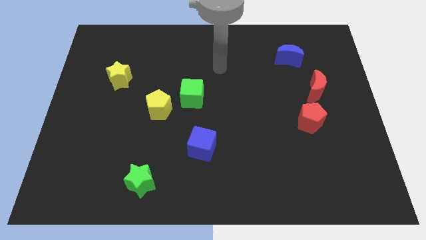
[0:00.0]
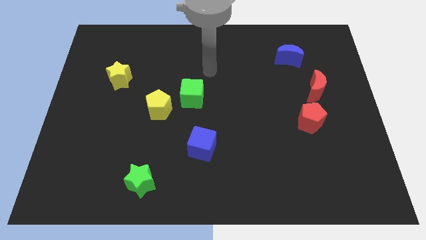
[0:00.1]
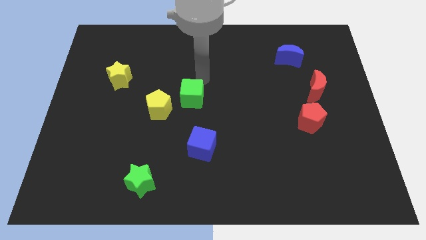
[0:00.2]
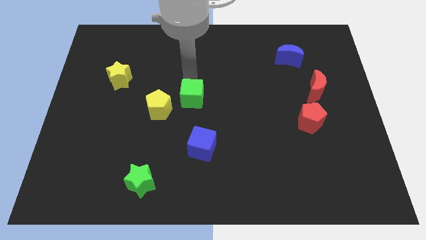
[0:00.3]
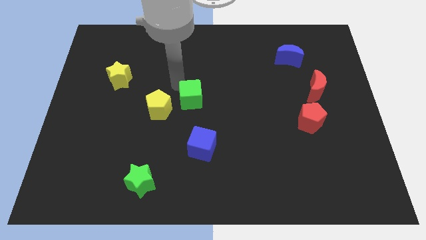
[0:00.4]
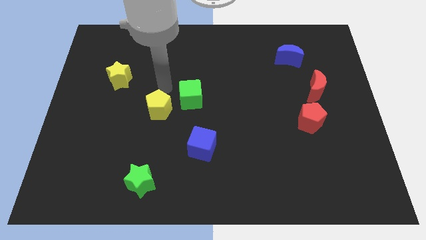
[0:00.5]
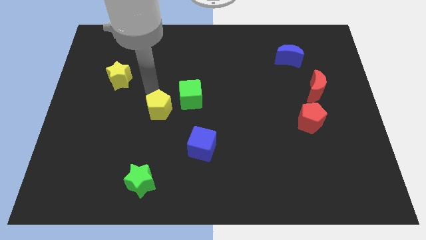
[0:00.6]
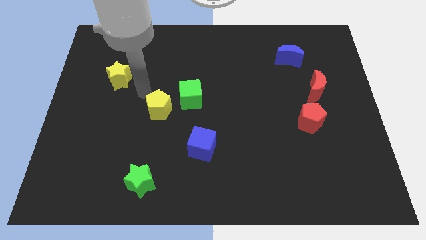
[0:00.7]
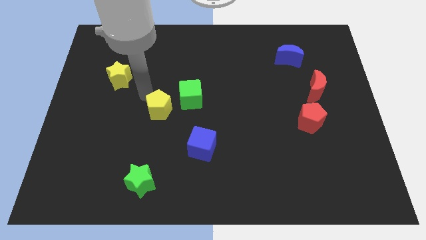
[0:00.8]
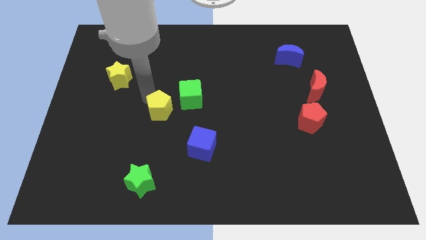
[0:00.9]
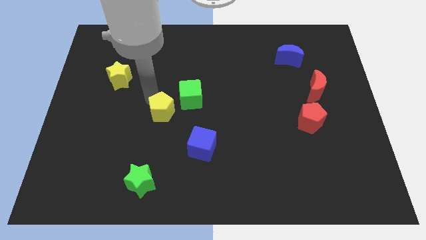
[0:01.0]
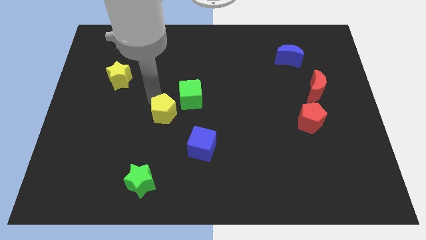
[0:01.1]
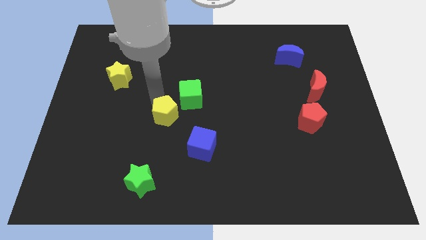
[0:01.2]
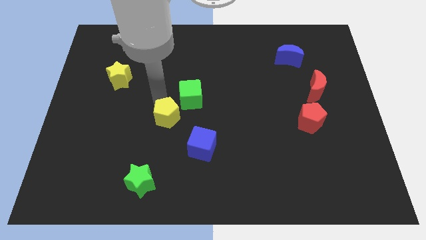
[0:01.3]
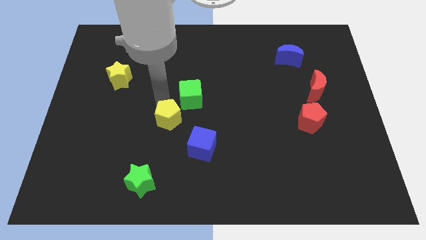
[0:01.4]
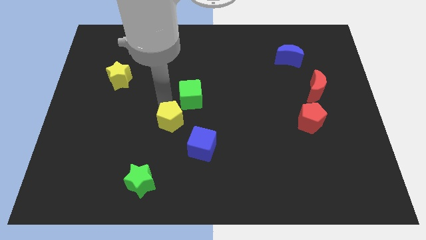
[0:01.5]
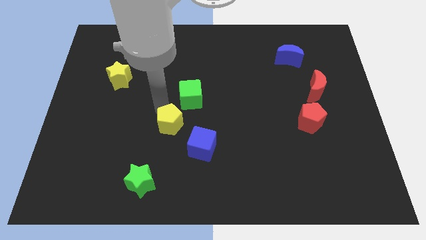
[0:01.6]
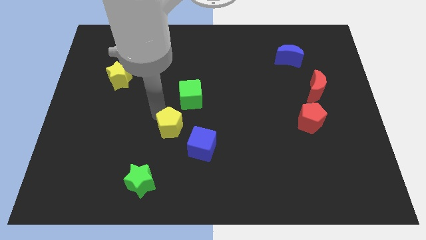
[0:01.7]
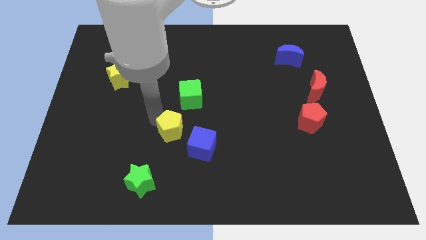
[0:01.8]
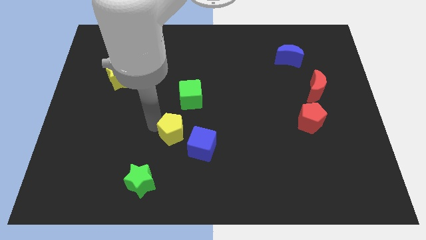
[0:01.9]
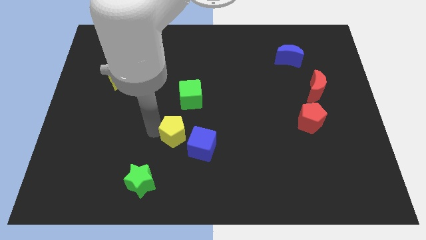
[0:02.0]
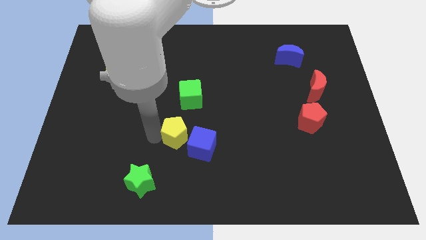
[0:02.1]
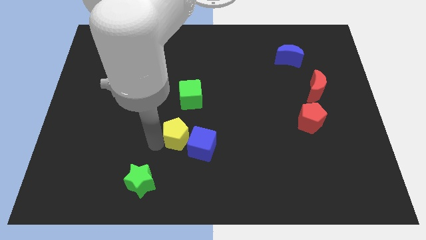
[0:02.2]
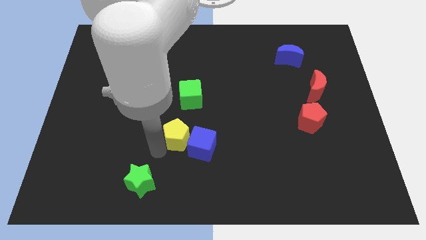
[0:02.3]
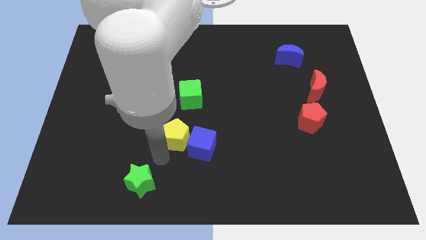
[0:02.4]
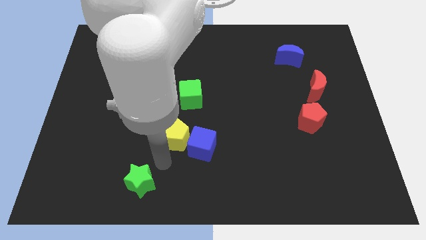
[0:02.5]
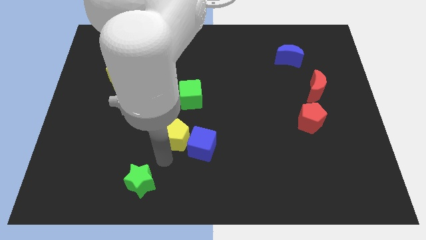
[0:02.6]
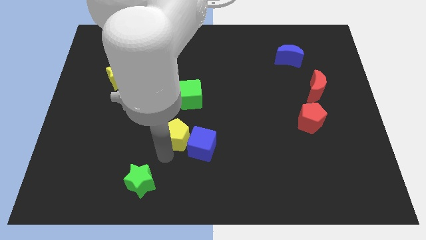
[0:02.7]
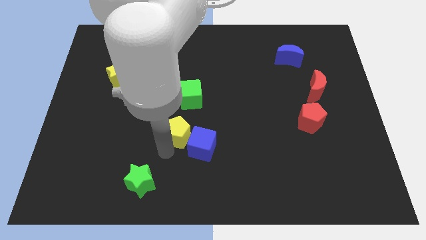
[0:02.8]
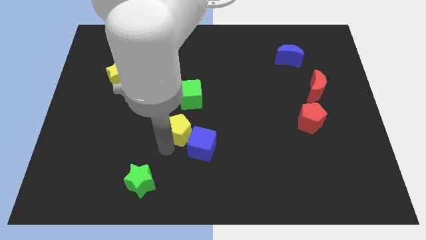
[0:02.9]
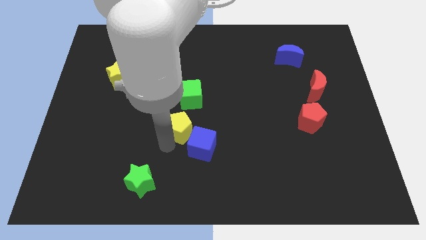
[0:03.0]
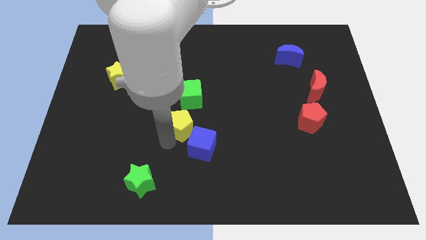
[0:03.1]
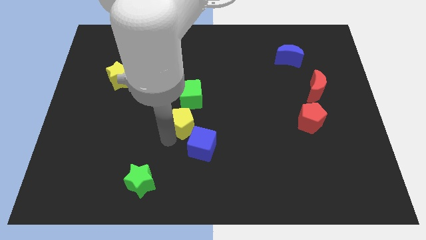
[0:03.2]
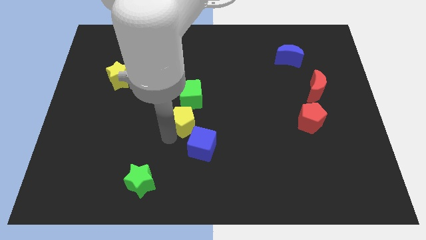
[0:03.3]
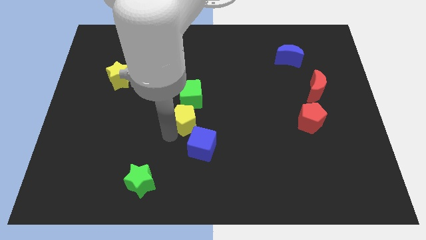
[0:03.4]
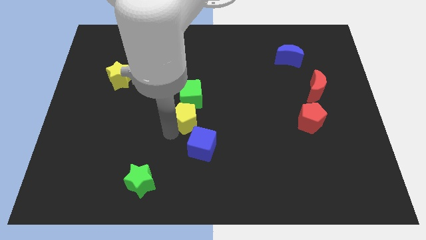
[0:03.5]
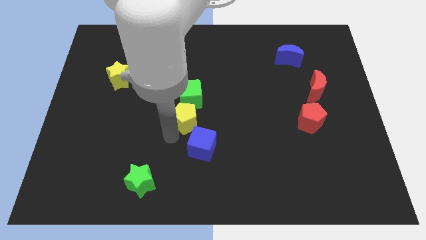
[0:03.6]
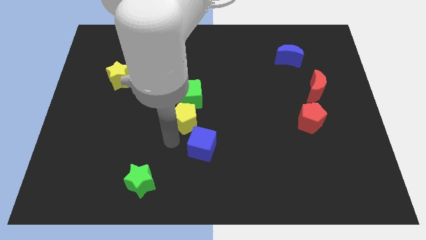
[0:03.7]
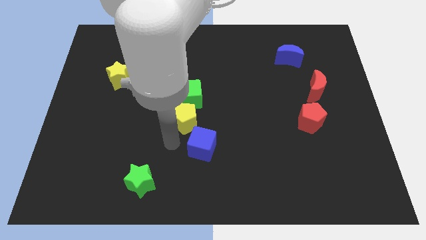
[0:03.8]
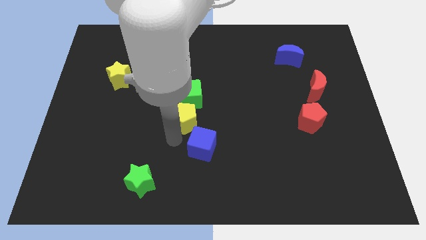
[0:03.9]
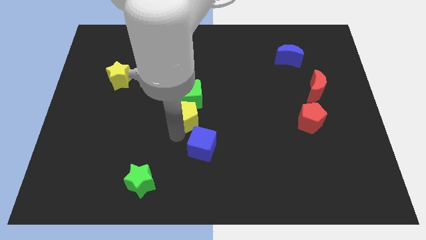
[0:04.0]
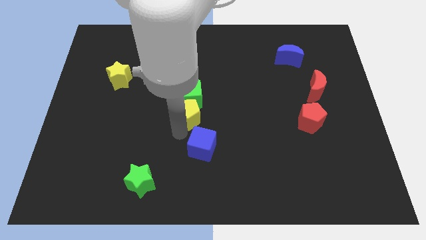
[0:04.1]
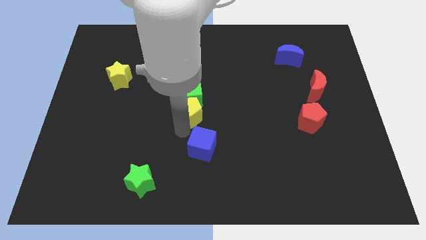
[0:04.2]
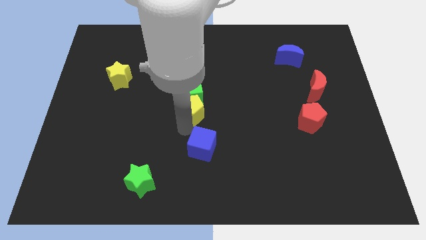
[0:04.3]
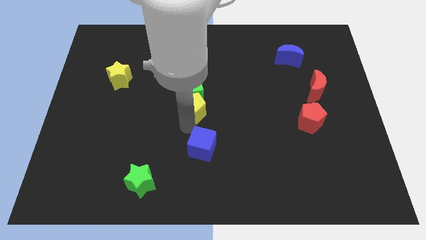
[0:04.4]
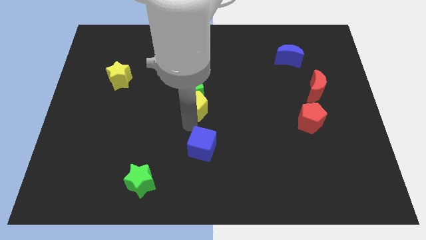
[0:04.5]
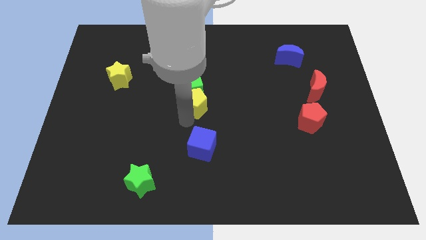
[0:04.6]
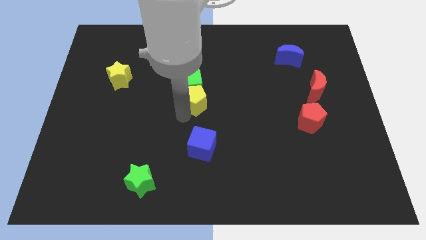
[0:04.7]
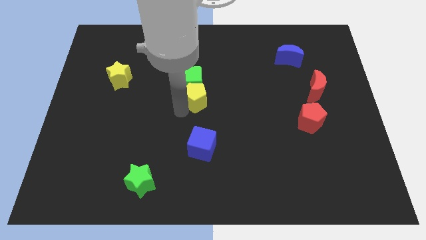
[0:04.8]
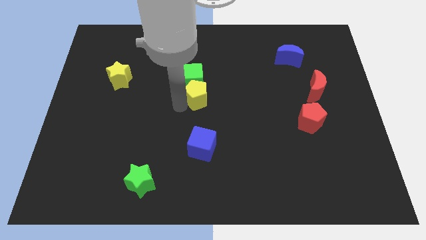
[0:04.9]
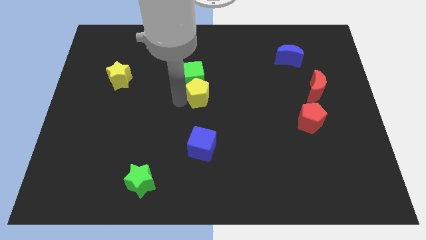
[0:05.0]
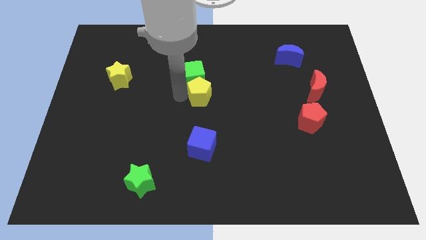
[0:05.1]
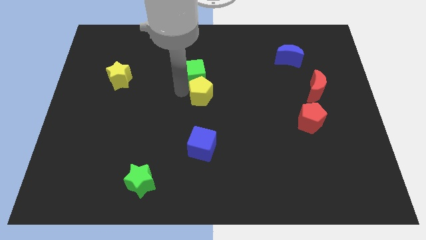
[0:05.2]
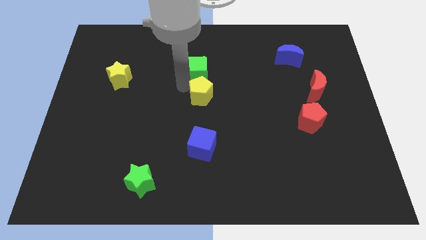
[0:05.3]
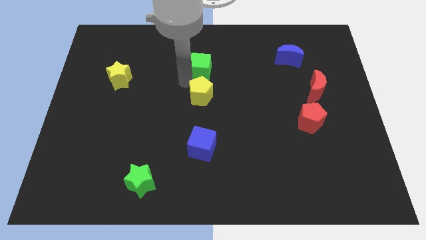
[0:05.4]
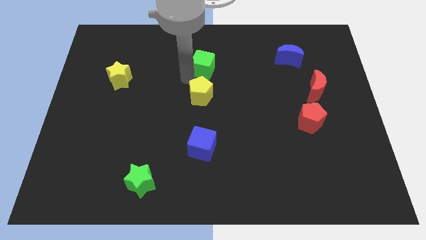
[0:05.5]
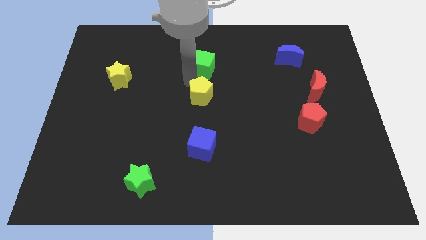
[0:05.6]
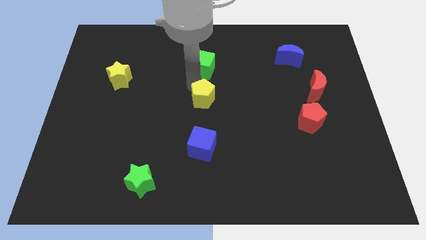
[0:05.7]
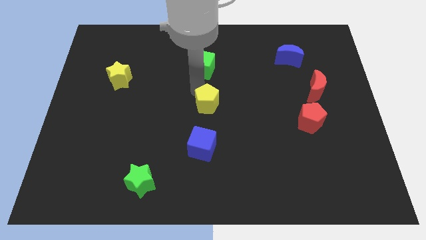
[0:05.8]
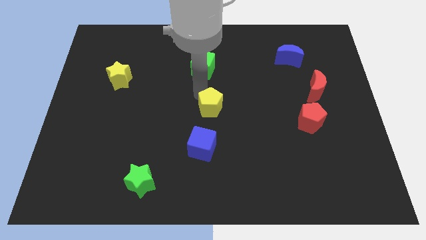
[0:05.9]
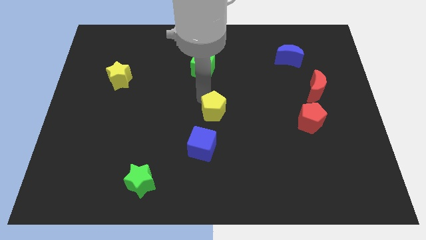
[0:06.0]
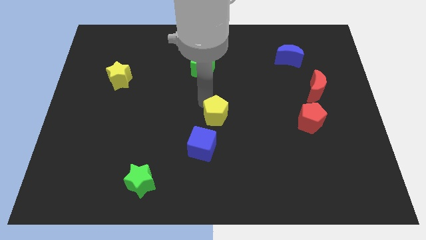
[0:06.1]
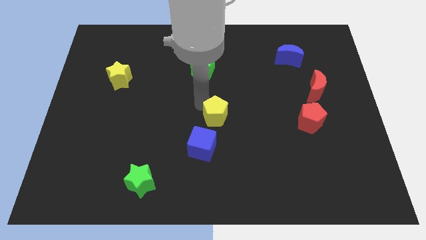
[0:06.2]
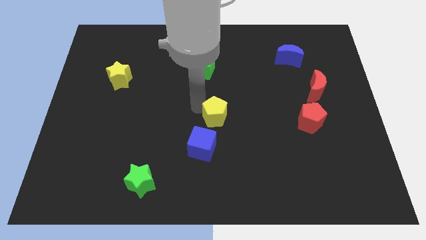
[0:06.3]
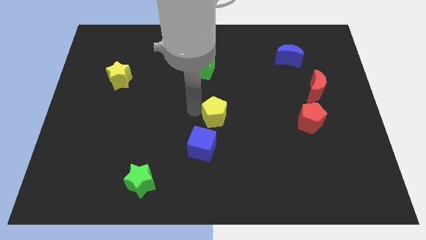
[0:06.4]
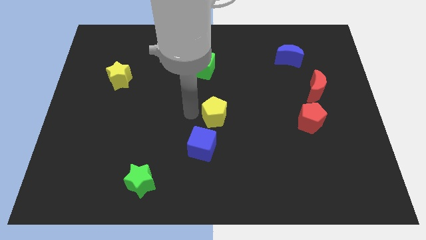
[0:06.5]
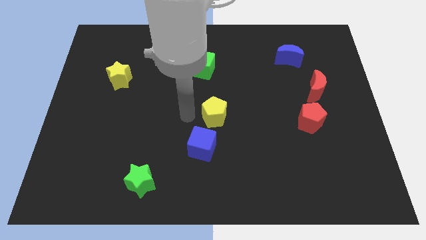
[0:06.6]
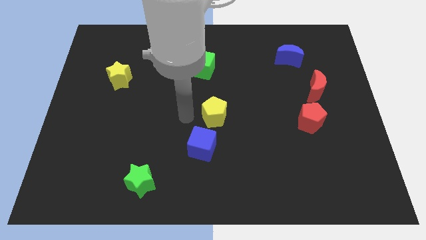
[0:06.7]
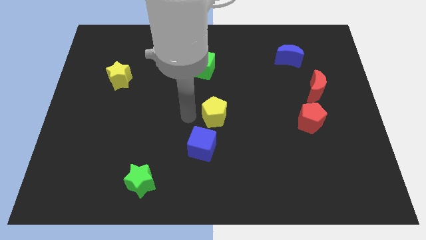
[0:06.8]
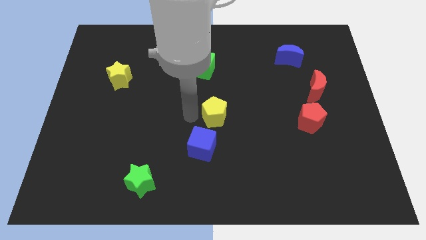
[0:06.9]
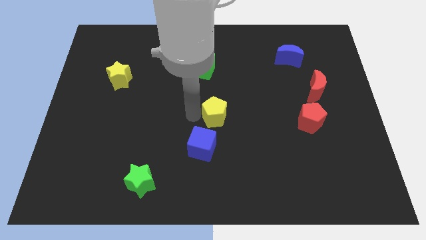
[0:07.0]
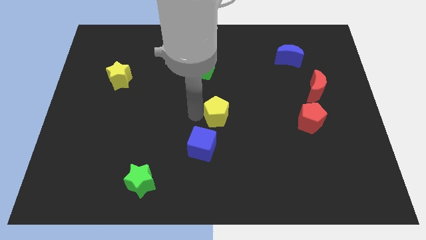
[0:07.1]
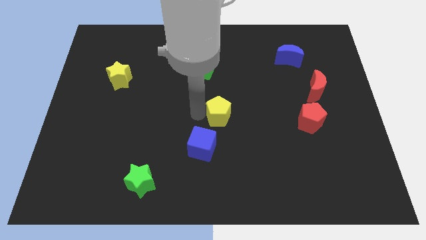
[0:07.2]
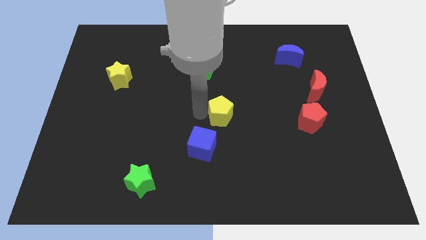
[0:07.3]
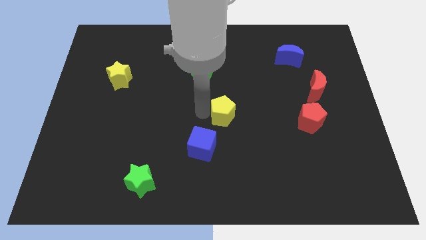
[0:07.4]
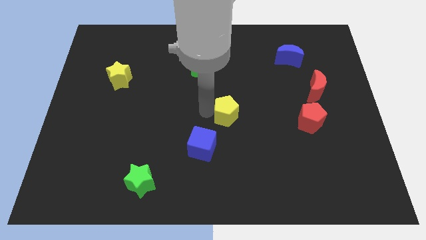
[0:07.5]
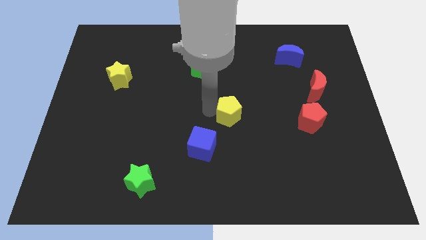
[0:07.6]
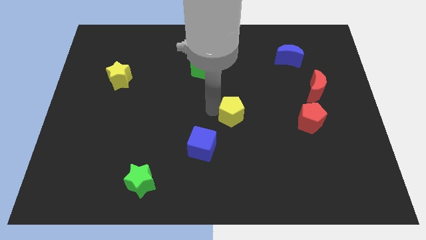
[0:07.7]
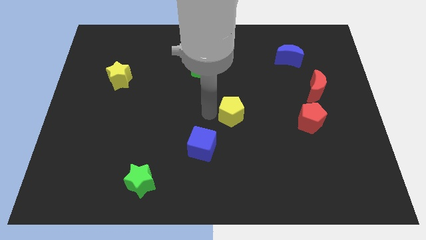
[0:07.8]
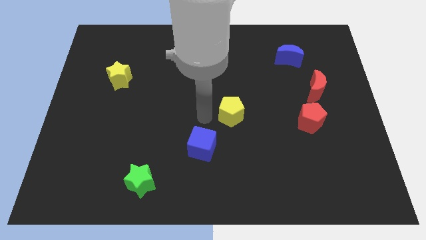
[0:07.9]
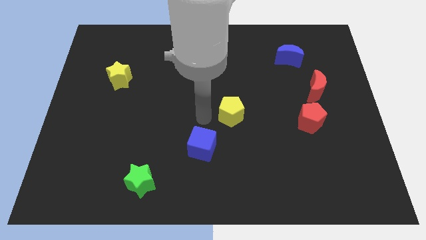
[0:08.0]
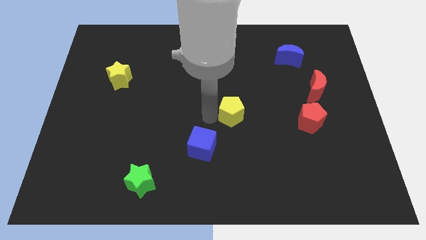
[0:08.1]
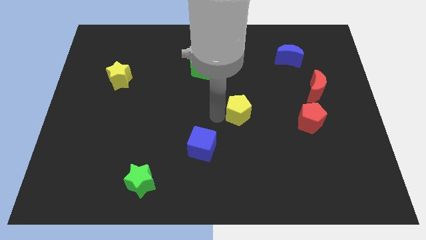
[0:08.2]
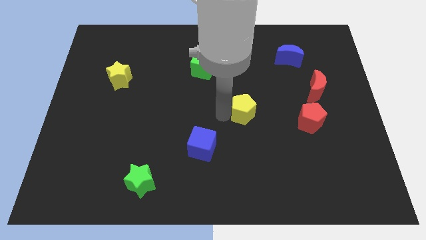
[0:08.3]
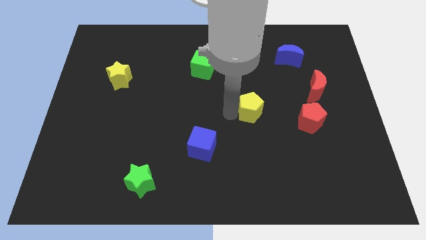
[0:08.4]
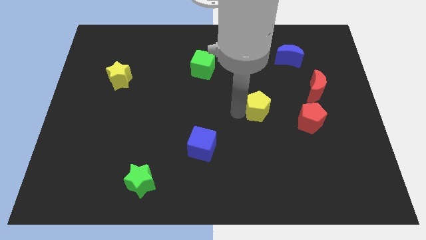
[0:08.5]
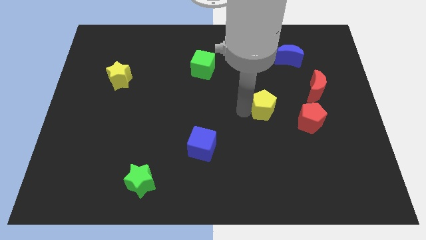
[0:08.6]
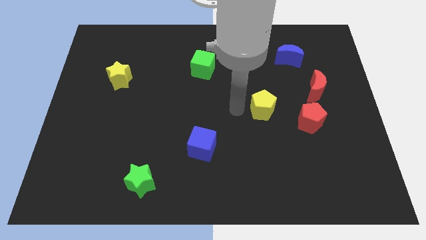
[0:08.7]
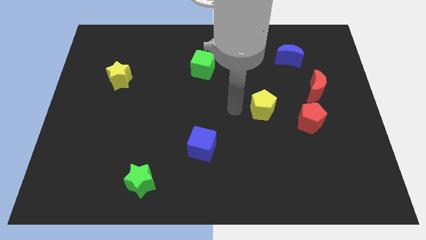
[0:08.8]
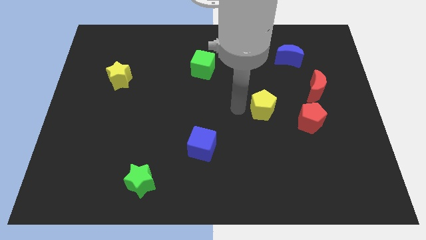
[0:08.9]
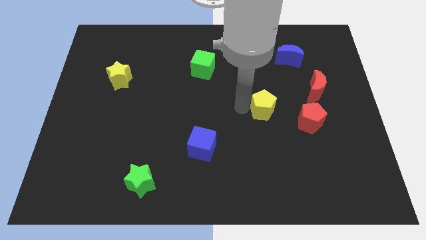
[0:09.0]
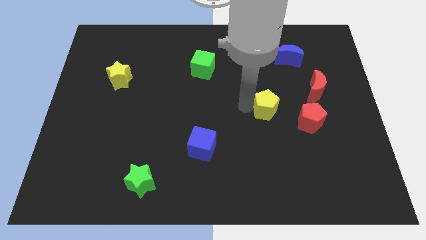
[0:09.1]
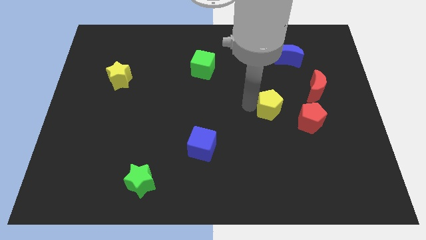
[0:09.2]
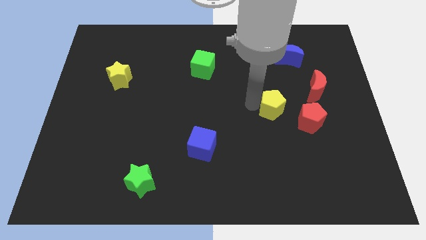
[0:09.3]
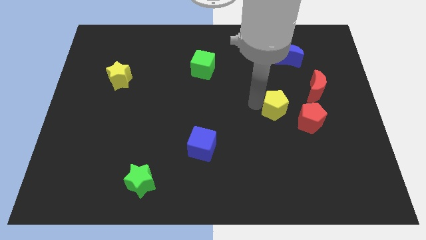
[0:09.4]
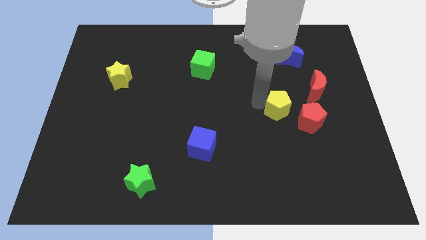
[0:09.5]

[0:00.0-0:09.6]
move the yellow pentagon diagonally down and to the left of the red moon
